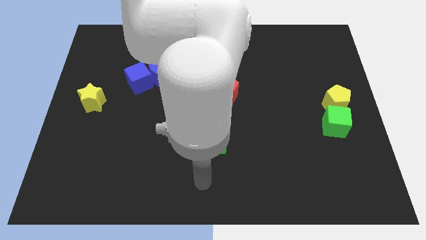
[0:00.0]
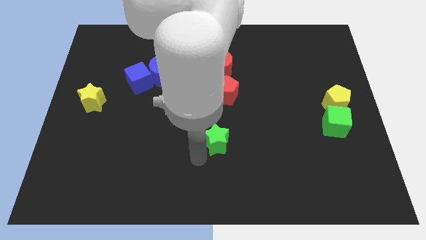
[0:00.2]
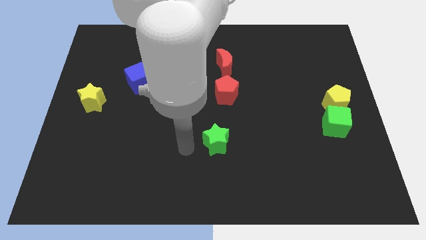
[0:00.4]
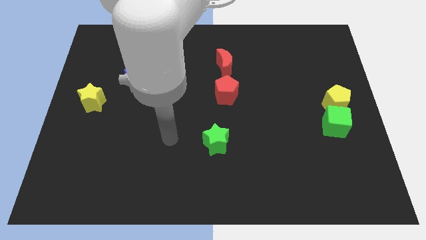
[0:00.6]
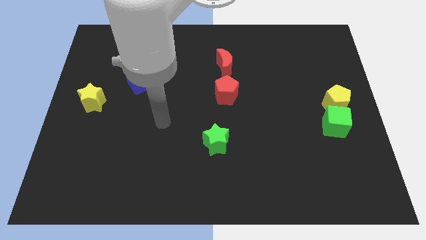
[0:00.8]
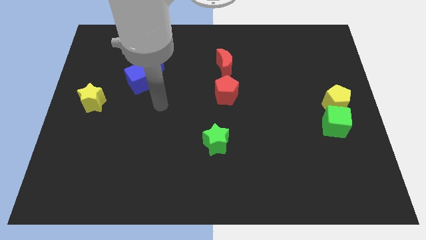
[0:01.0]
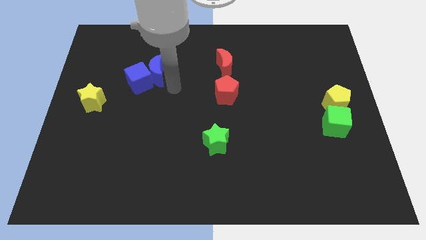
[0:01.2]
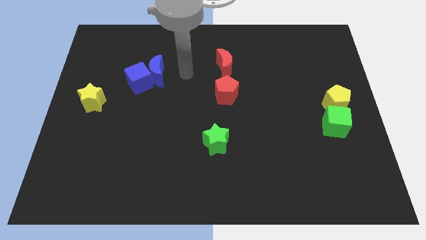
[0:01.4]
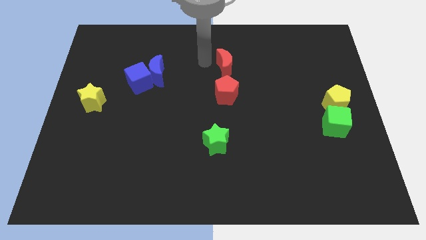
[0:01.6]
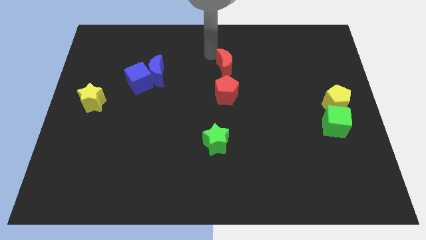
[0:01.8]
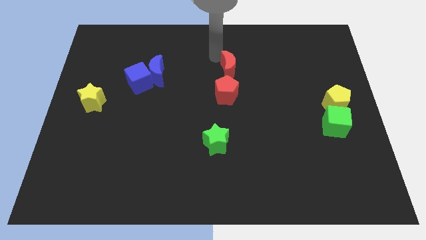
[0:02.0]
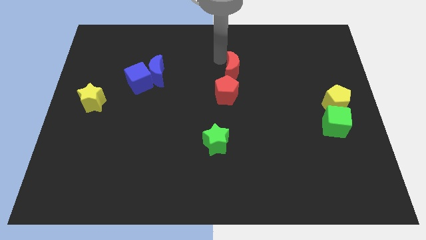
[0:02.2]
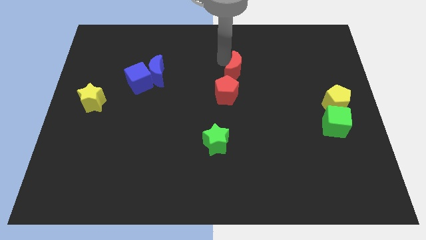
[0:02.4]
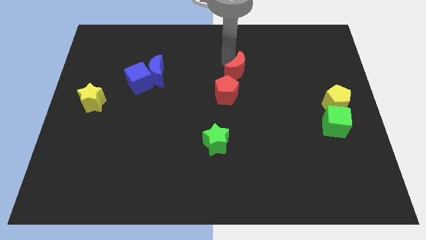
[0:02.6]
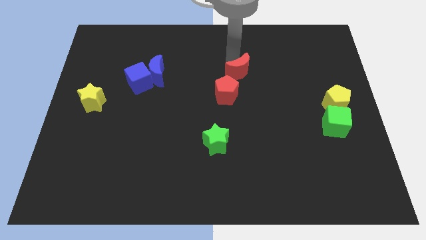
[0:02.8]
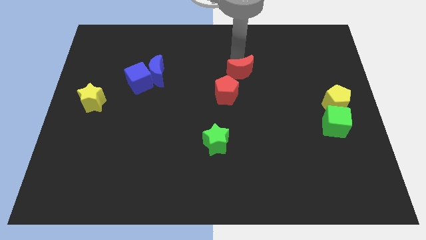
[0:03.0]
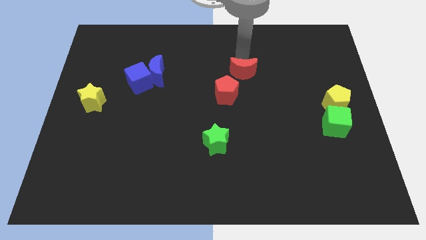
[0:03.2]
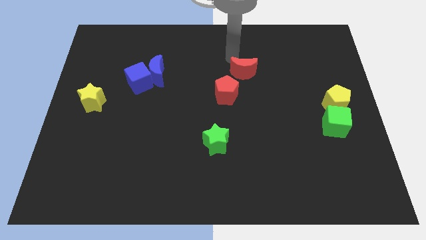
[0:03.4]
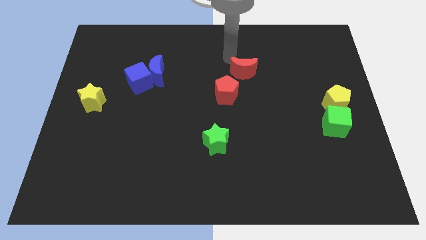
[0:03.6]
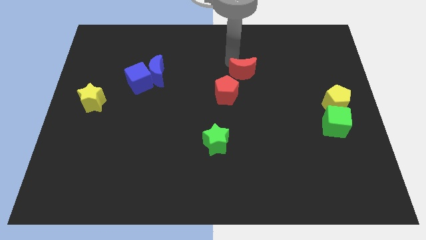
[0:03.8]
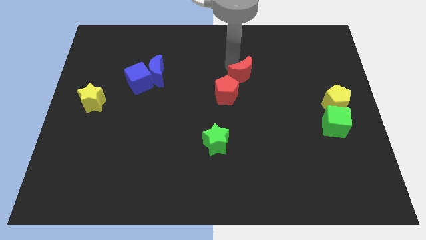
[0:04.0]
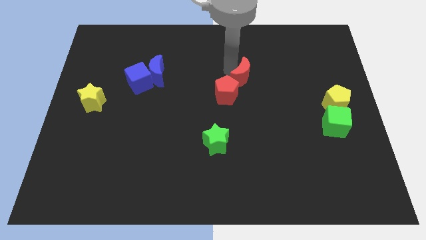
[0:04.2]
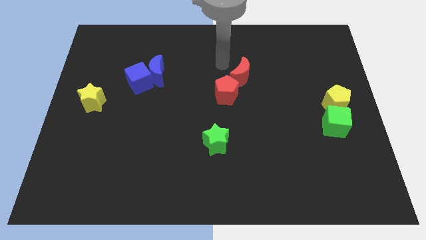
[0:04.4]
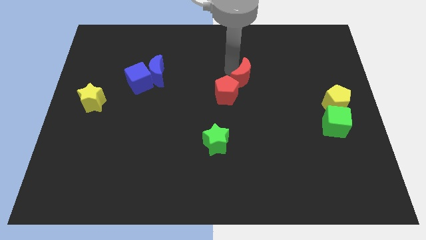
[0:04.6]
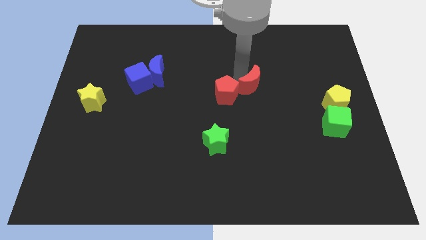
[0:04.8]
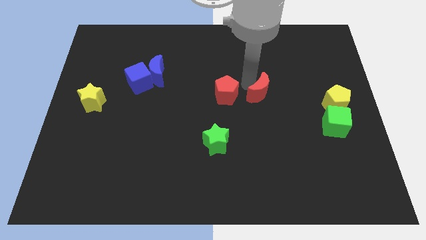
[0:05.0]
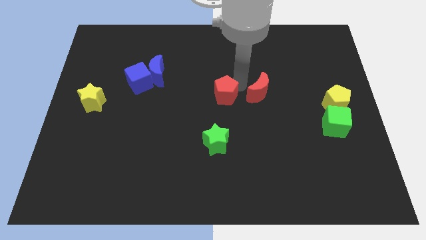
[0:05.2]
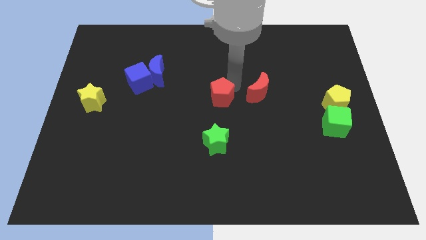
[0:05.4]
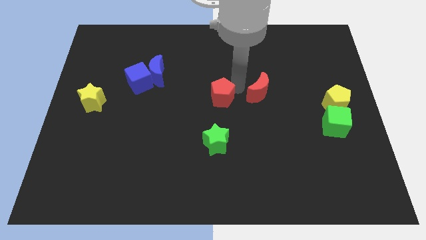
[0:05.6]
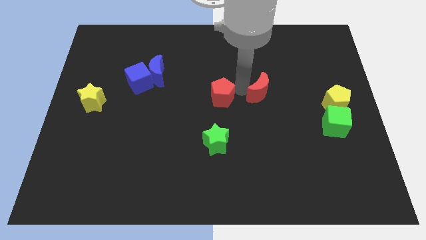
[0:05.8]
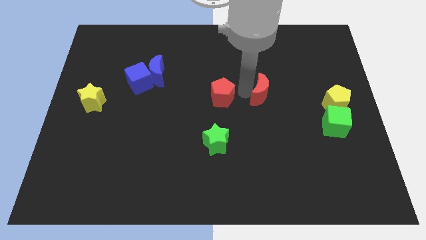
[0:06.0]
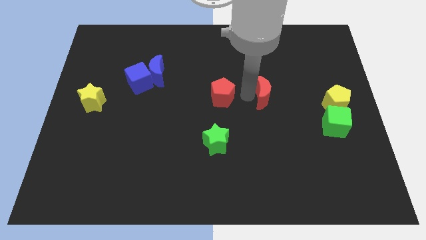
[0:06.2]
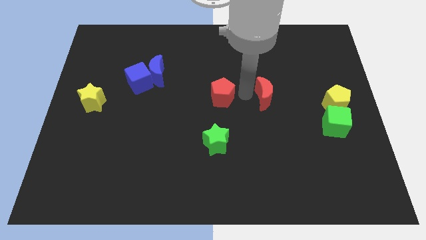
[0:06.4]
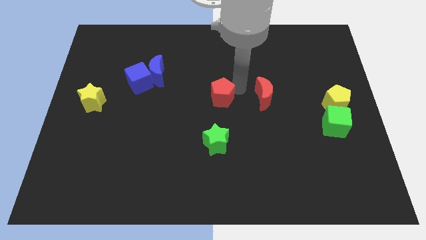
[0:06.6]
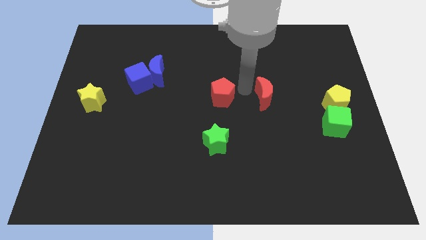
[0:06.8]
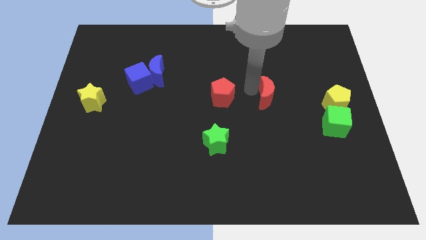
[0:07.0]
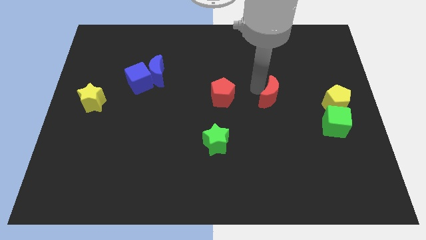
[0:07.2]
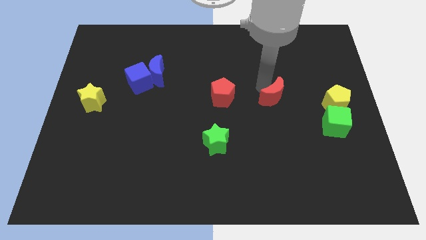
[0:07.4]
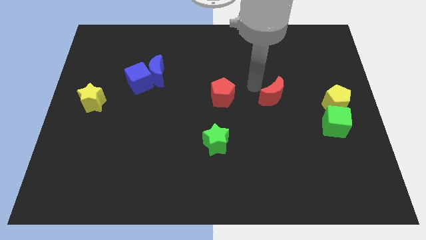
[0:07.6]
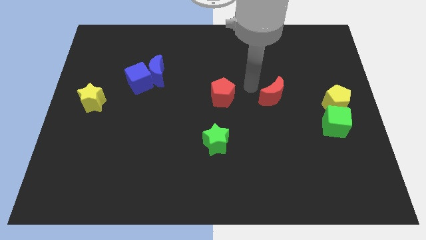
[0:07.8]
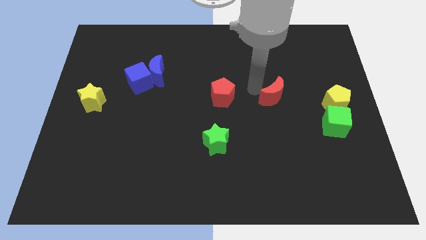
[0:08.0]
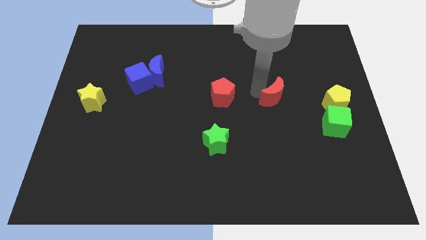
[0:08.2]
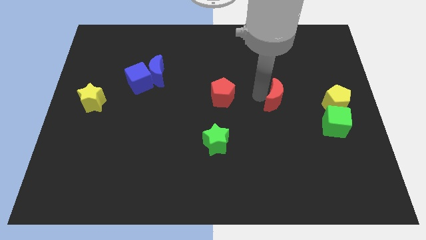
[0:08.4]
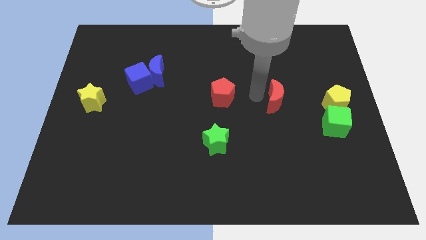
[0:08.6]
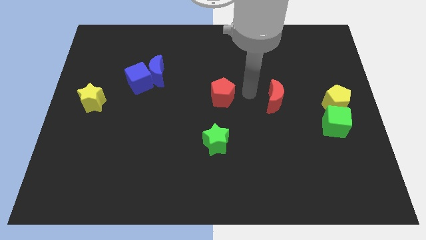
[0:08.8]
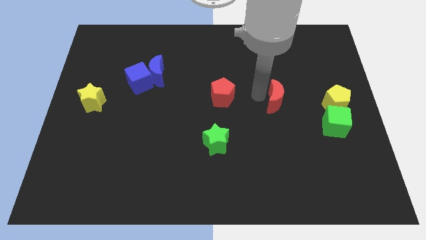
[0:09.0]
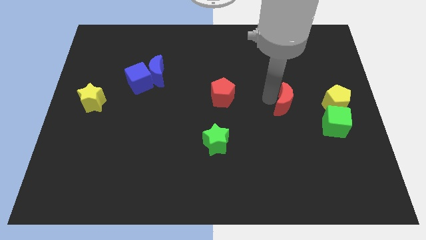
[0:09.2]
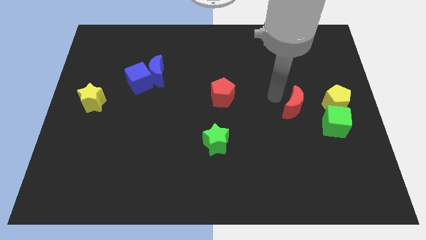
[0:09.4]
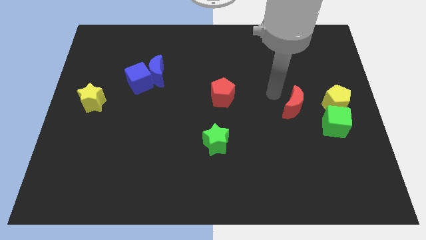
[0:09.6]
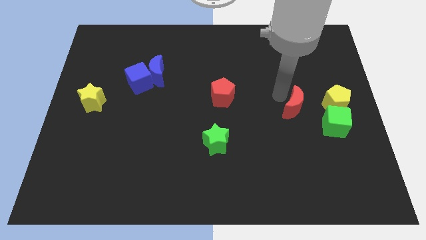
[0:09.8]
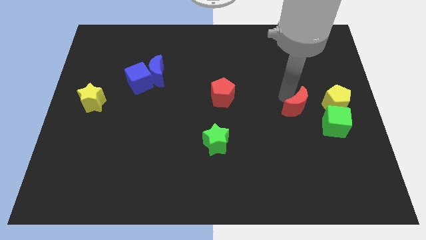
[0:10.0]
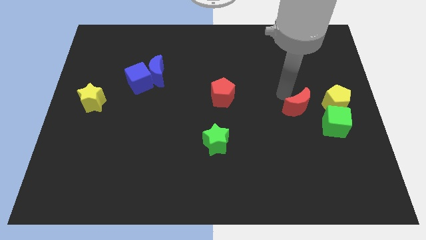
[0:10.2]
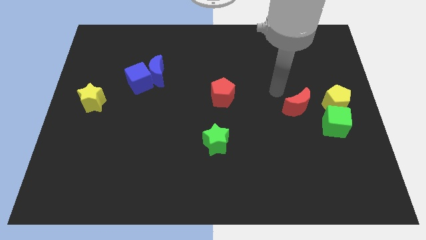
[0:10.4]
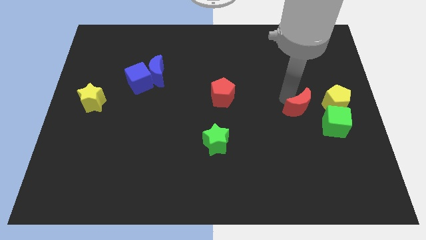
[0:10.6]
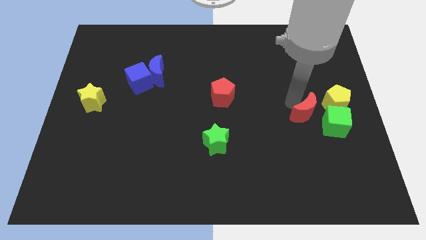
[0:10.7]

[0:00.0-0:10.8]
put the red moon to the bottom left of the yellow pentagon

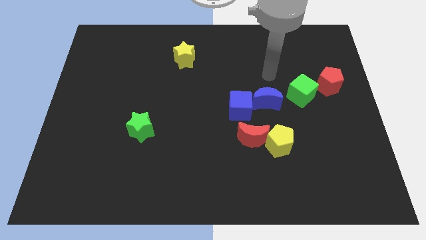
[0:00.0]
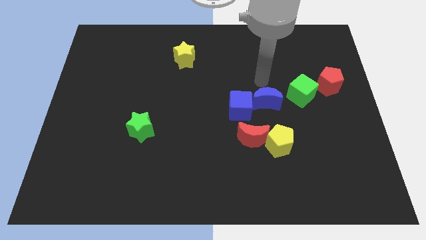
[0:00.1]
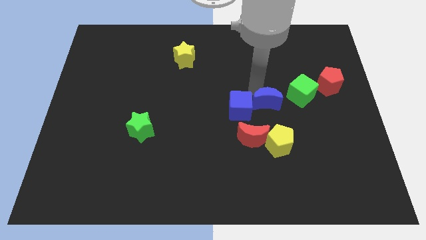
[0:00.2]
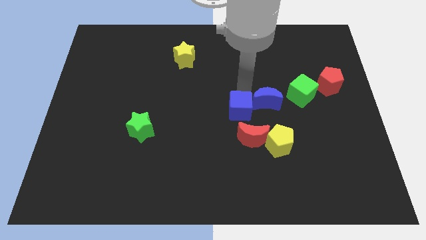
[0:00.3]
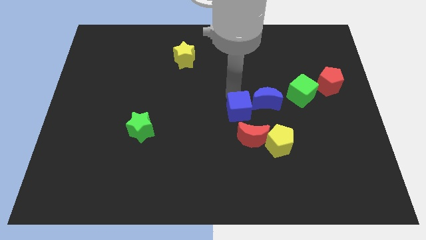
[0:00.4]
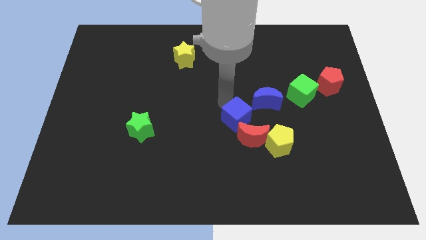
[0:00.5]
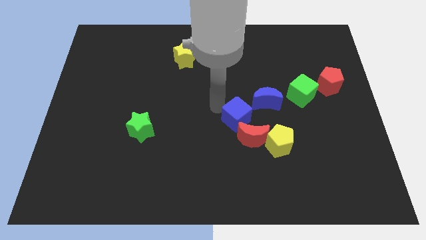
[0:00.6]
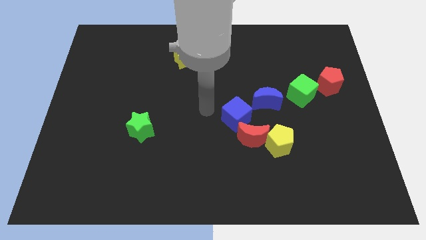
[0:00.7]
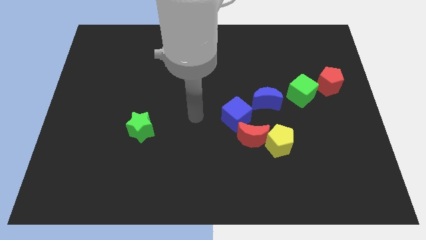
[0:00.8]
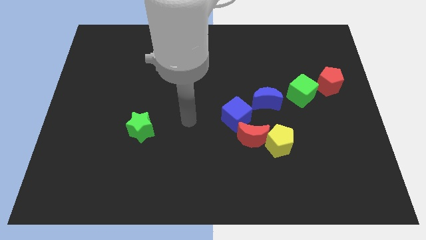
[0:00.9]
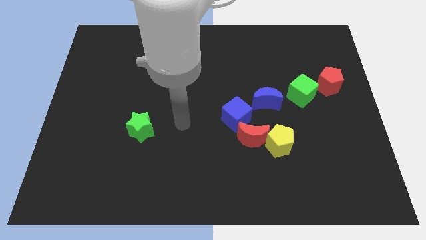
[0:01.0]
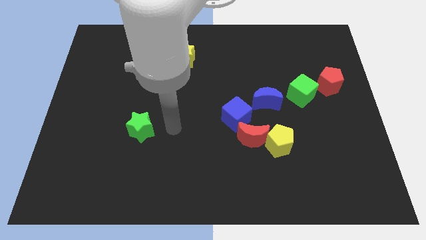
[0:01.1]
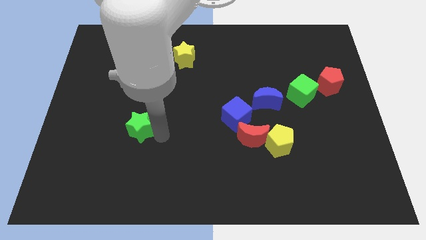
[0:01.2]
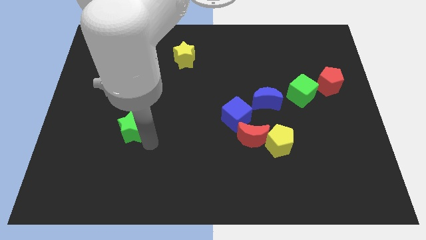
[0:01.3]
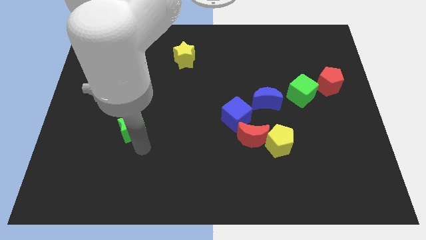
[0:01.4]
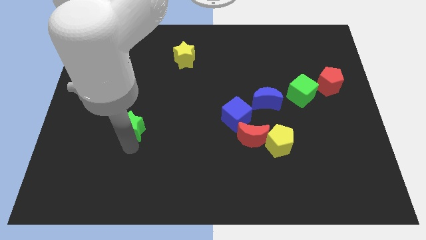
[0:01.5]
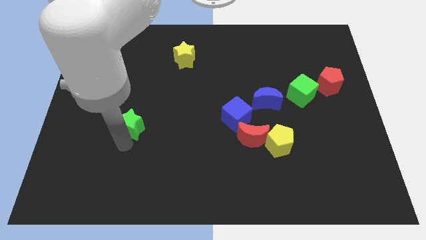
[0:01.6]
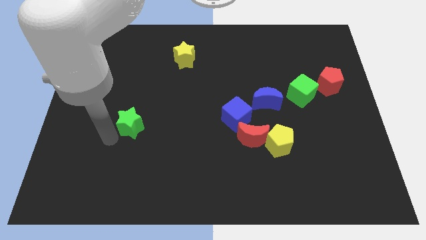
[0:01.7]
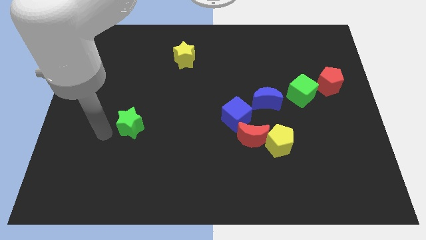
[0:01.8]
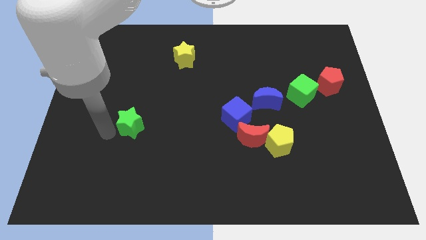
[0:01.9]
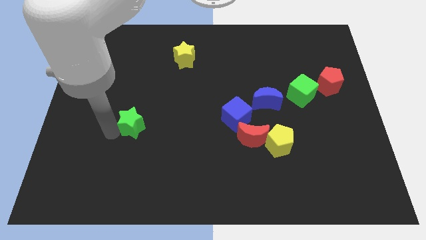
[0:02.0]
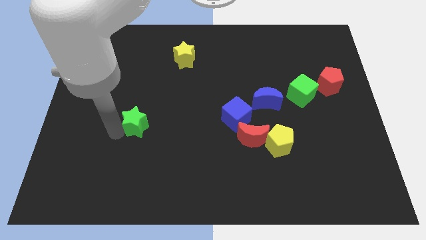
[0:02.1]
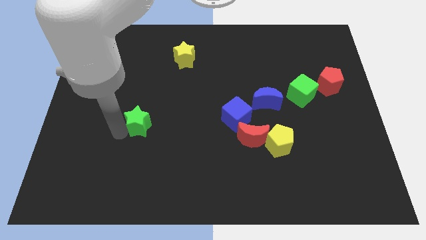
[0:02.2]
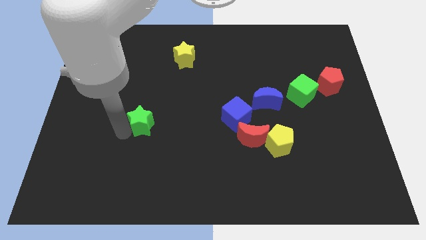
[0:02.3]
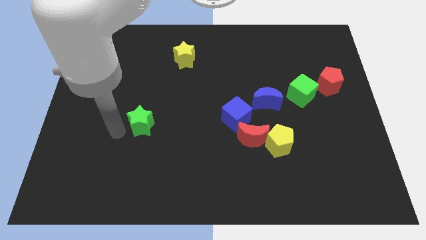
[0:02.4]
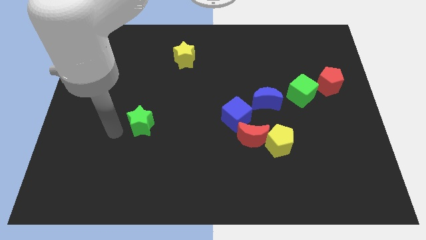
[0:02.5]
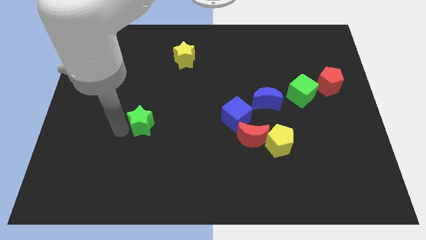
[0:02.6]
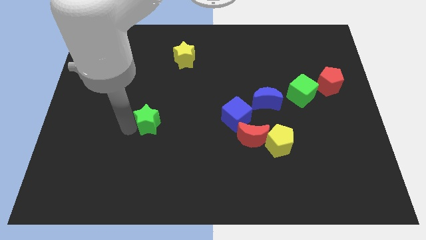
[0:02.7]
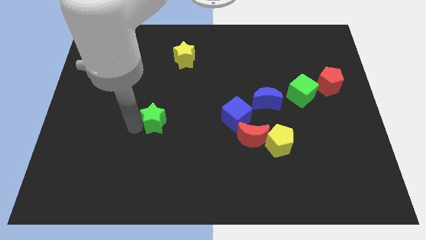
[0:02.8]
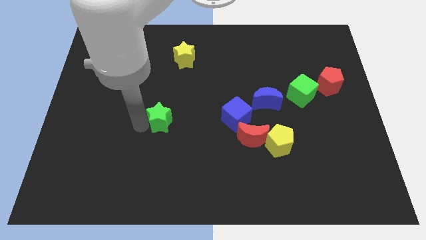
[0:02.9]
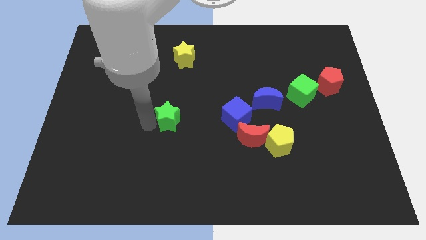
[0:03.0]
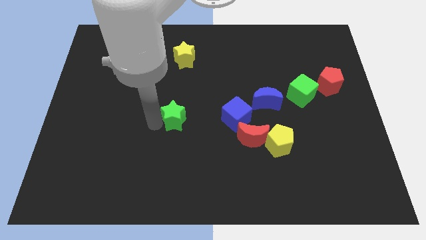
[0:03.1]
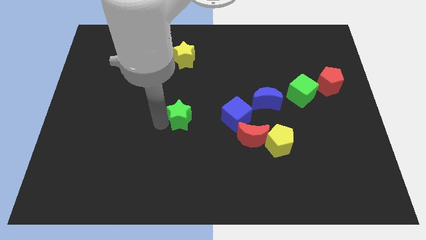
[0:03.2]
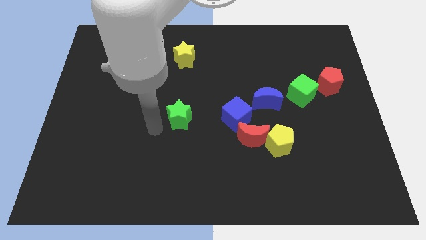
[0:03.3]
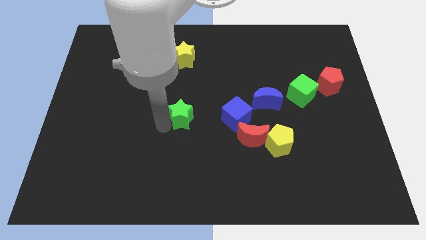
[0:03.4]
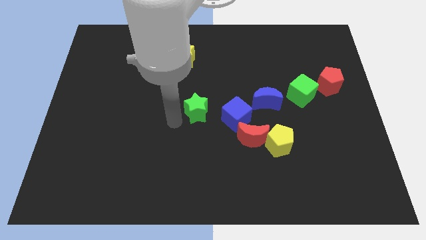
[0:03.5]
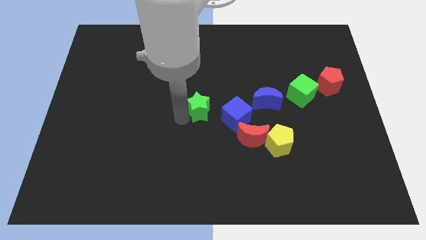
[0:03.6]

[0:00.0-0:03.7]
push the green star left of the blue moon
